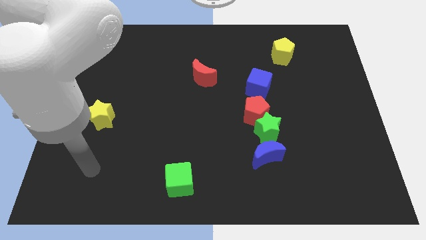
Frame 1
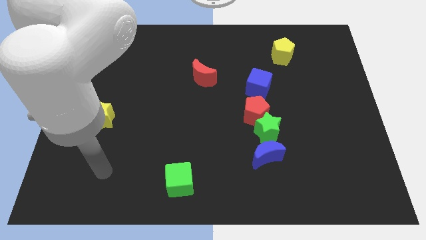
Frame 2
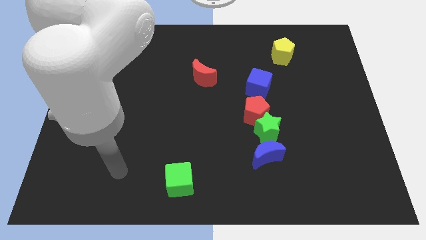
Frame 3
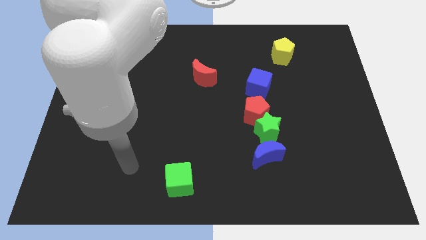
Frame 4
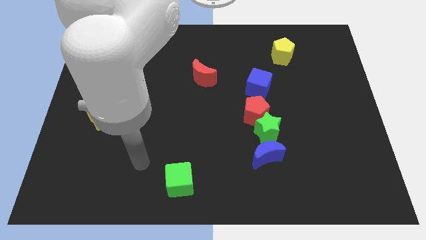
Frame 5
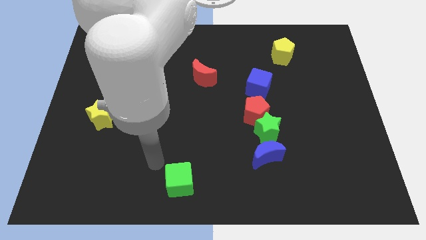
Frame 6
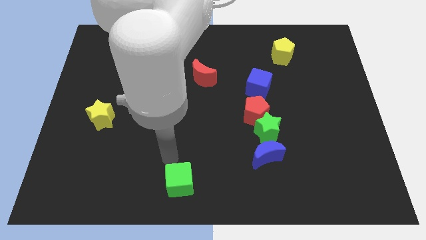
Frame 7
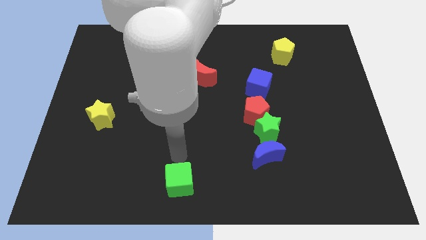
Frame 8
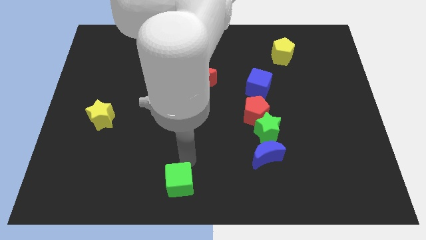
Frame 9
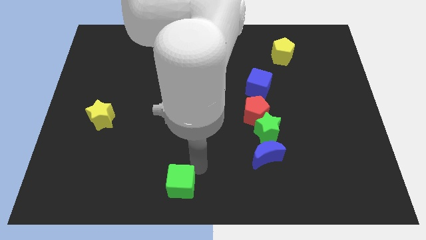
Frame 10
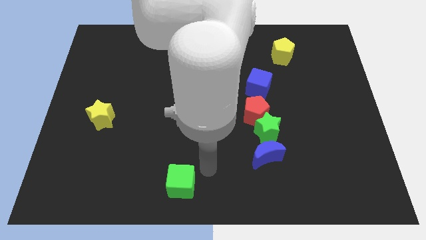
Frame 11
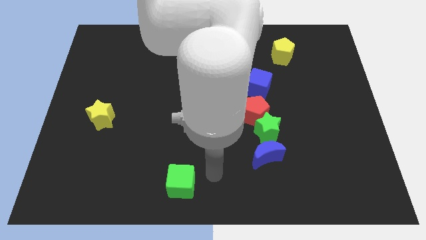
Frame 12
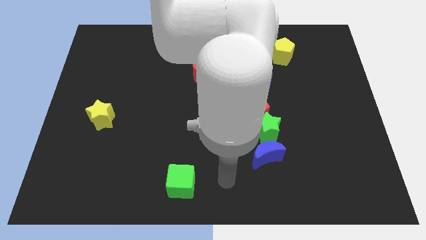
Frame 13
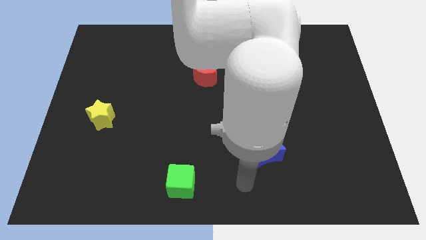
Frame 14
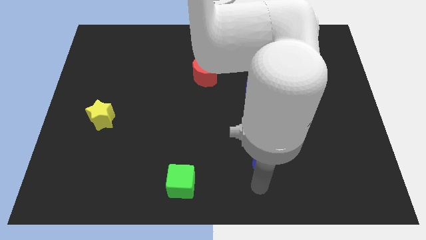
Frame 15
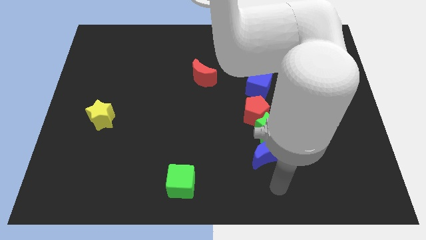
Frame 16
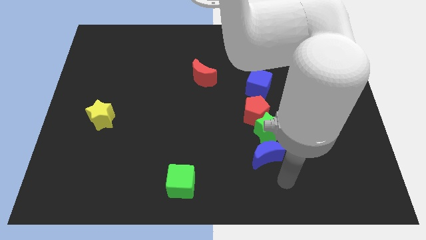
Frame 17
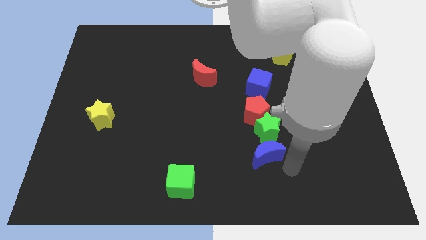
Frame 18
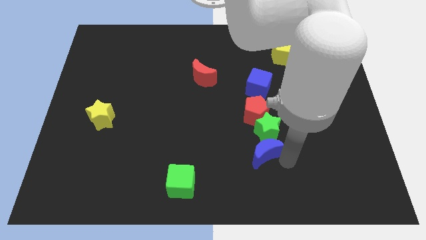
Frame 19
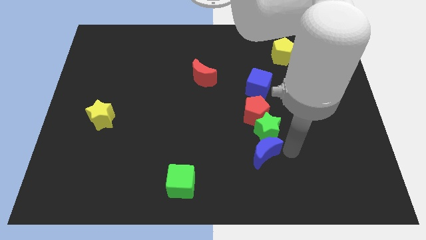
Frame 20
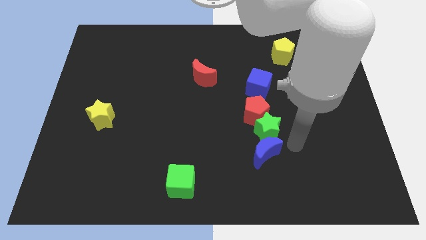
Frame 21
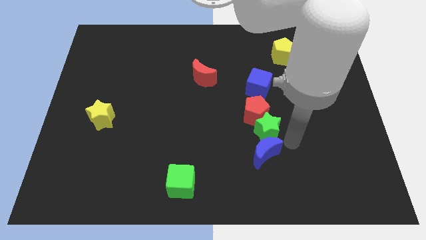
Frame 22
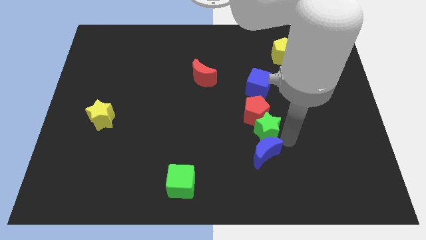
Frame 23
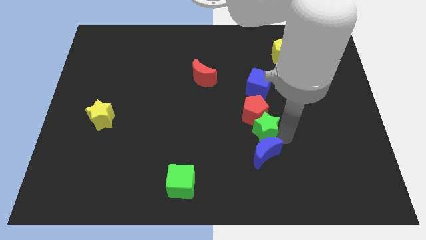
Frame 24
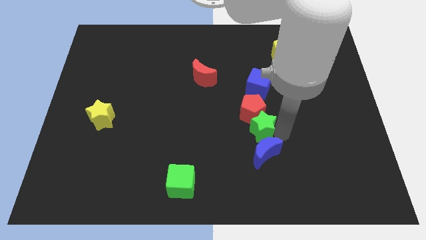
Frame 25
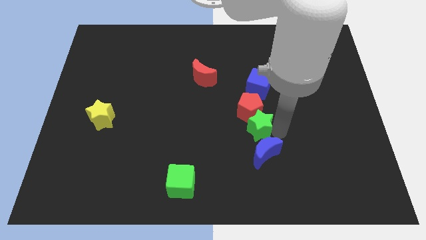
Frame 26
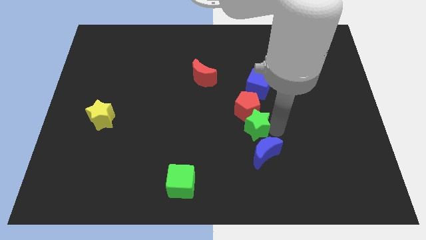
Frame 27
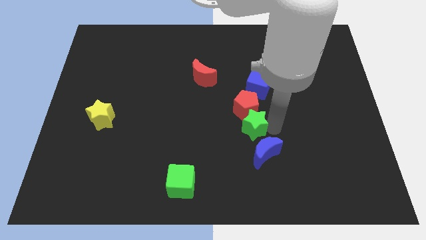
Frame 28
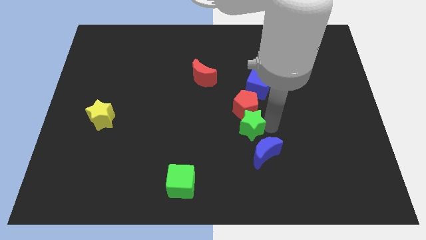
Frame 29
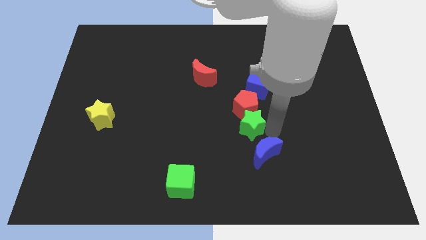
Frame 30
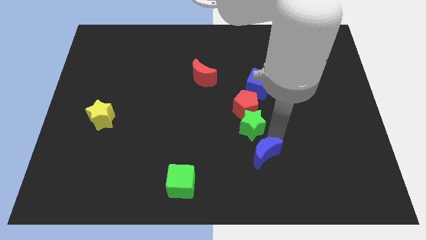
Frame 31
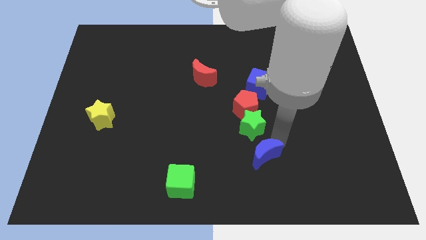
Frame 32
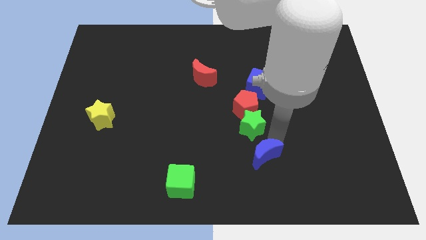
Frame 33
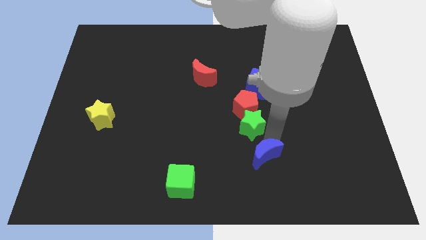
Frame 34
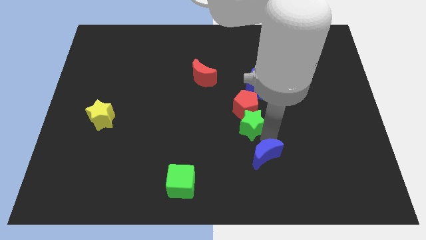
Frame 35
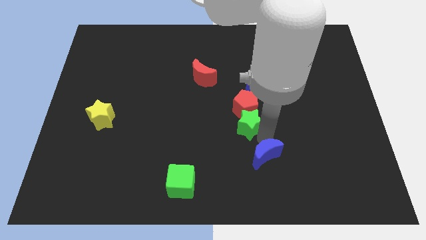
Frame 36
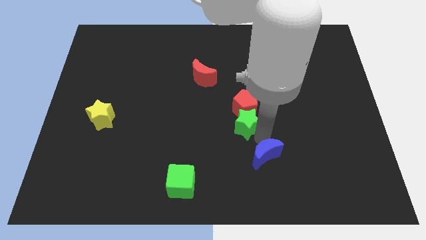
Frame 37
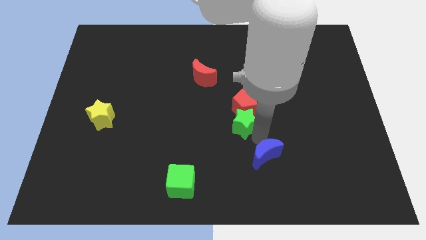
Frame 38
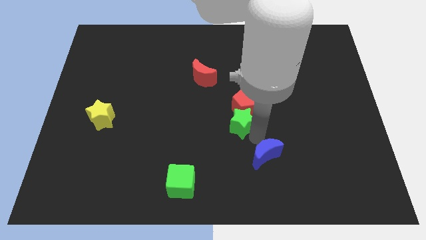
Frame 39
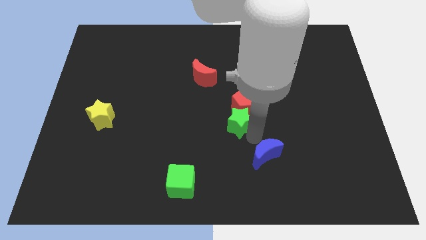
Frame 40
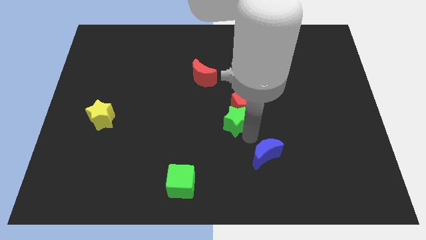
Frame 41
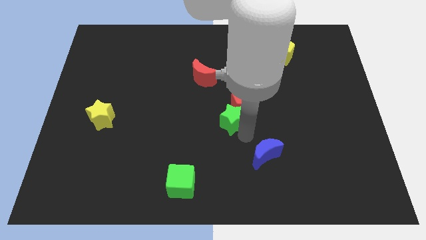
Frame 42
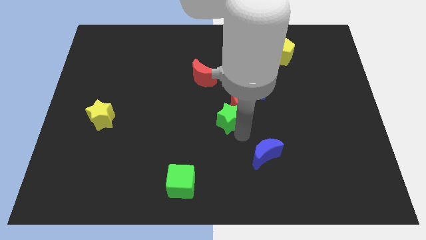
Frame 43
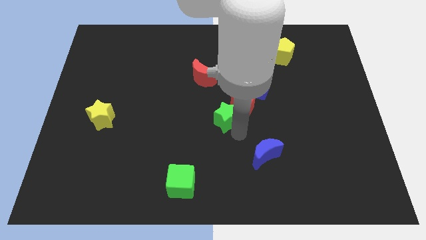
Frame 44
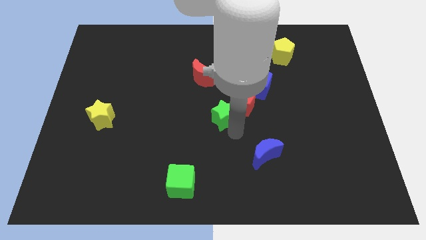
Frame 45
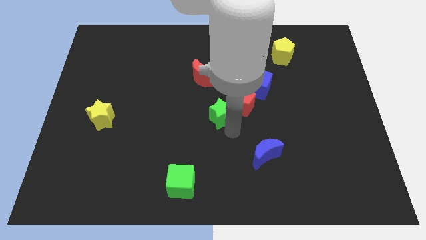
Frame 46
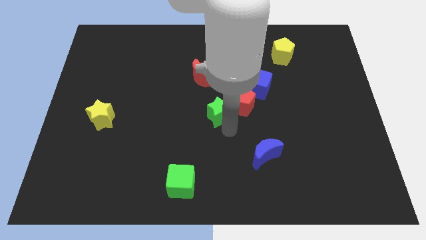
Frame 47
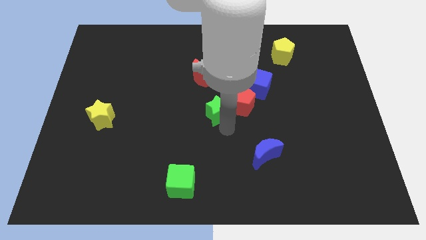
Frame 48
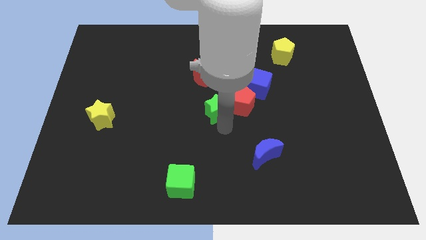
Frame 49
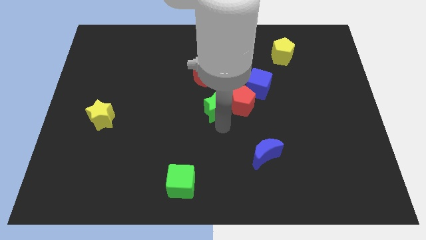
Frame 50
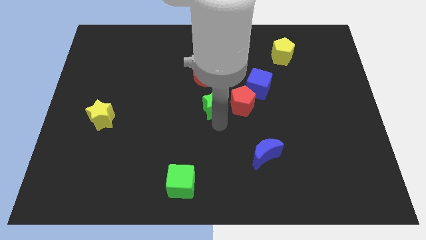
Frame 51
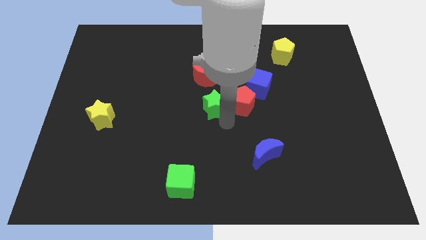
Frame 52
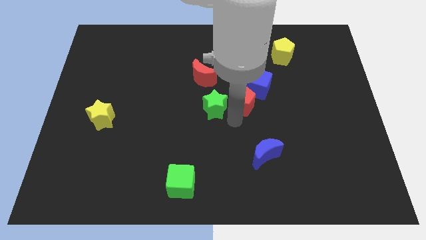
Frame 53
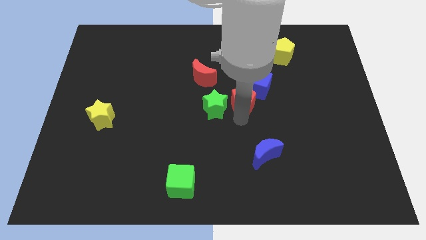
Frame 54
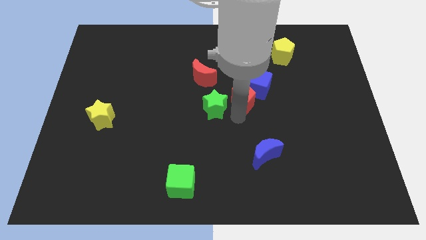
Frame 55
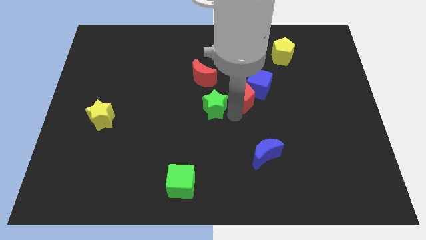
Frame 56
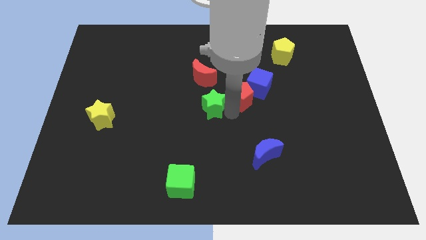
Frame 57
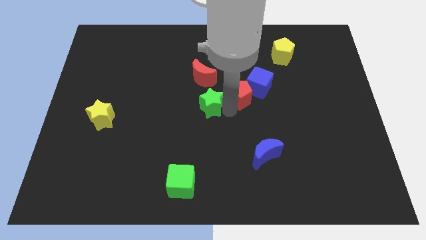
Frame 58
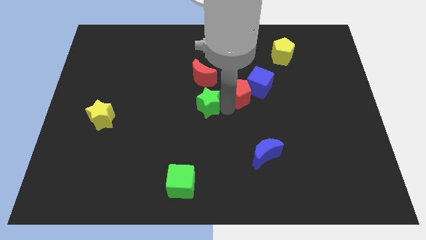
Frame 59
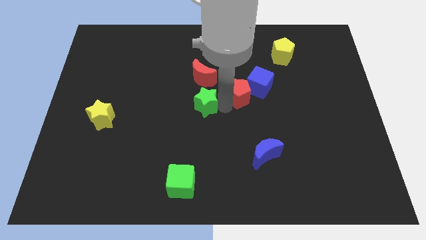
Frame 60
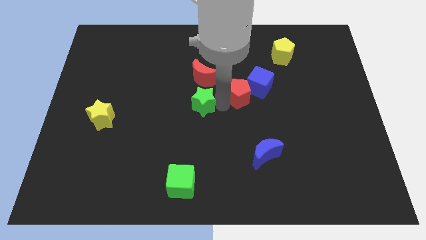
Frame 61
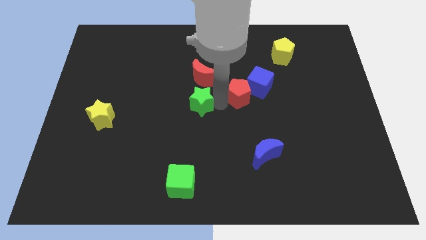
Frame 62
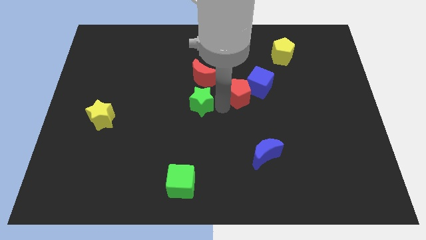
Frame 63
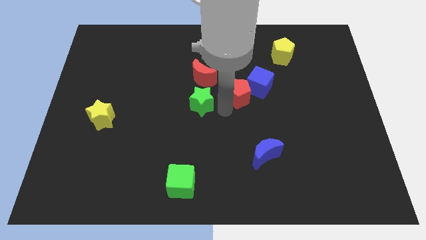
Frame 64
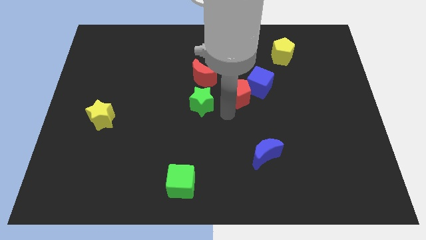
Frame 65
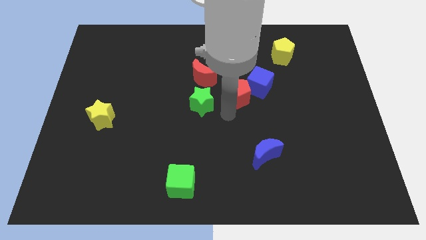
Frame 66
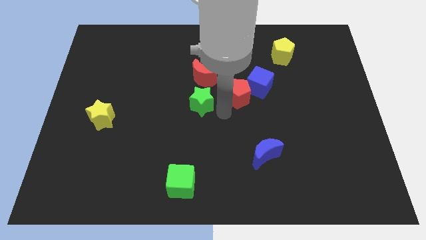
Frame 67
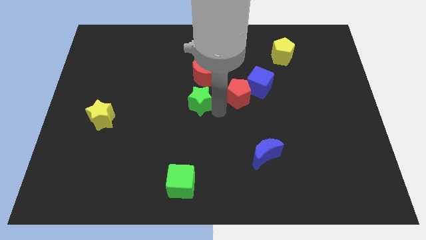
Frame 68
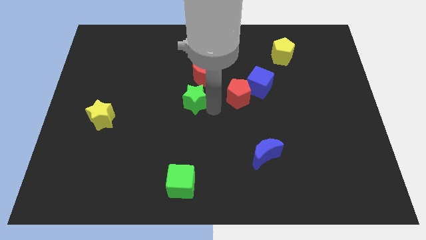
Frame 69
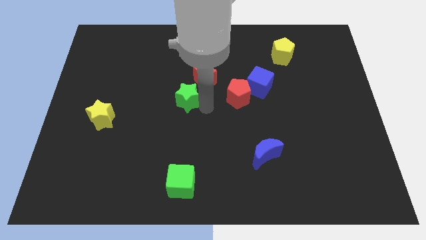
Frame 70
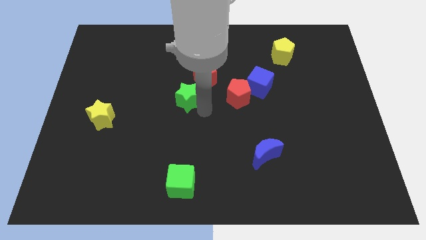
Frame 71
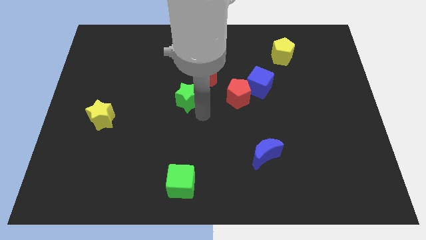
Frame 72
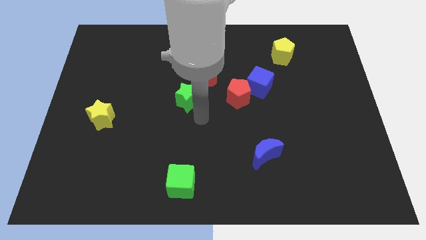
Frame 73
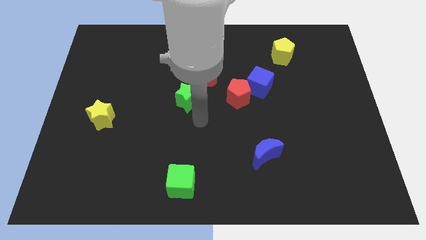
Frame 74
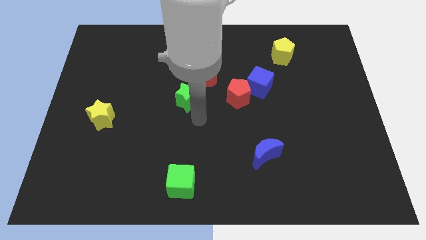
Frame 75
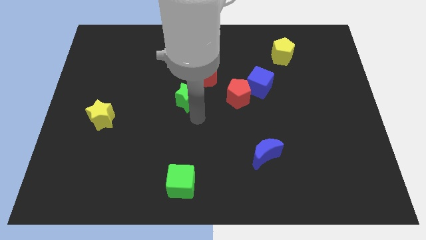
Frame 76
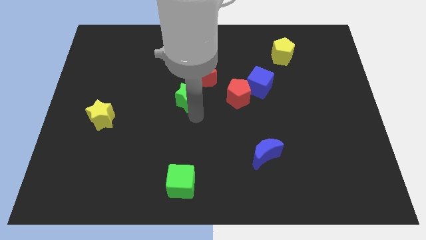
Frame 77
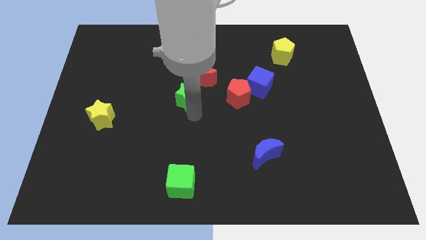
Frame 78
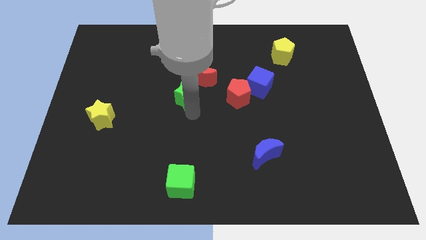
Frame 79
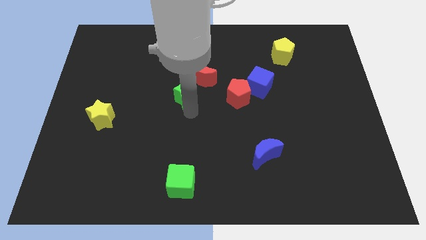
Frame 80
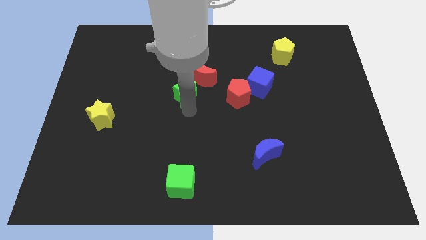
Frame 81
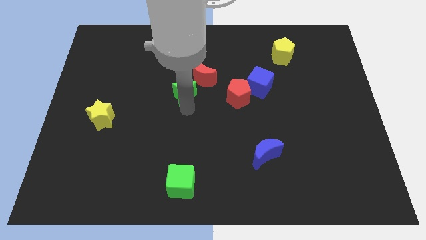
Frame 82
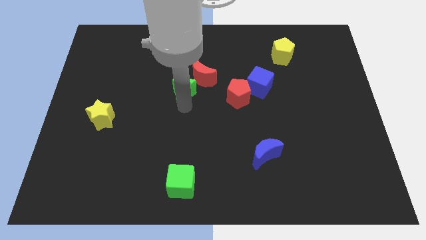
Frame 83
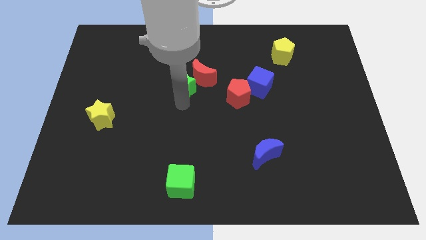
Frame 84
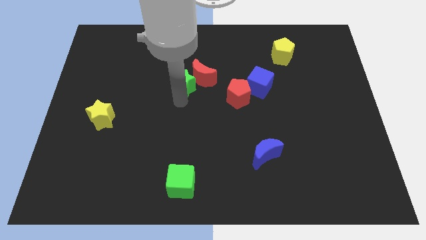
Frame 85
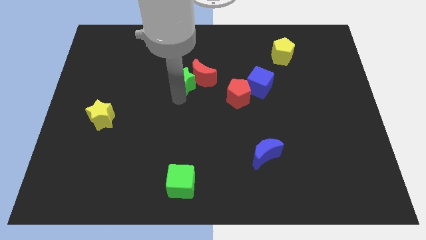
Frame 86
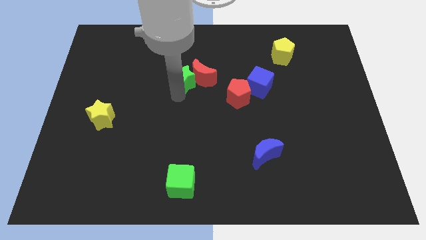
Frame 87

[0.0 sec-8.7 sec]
move the green star to the top left side of the red moon
